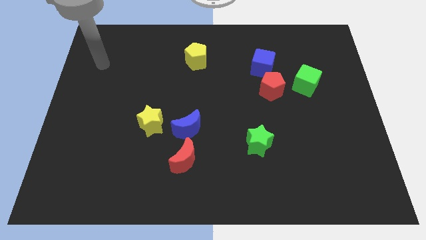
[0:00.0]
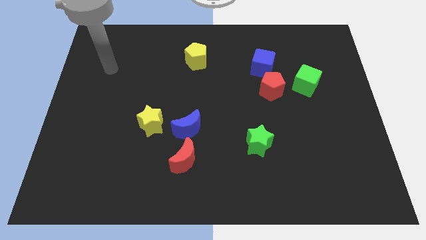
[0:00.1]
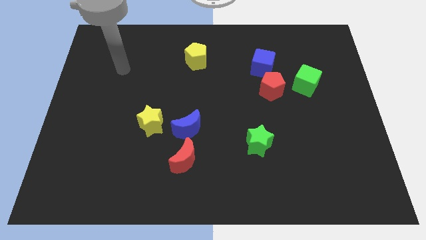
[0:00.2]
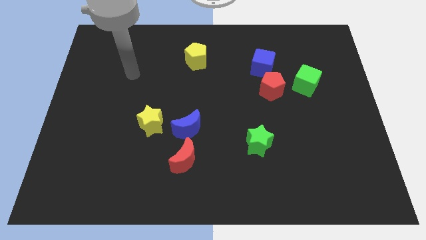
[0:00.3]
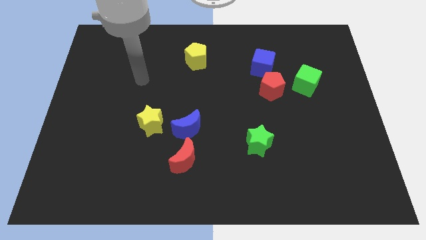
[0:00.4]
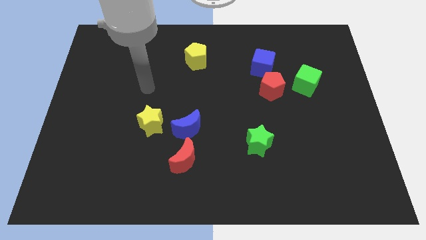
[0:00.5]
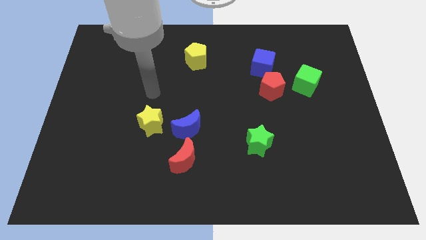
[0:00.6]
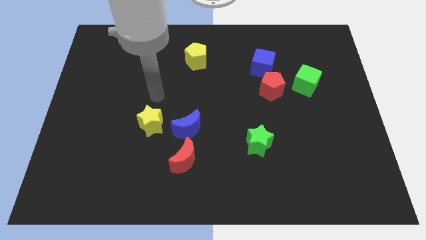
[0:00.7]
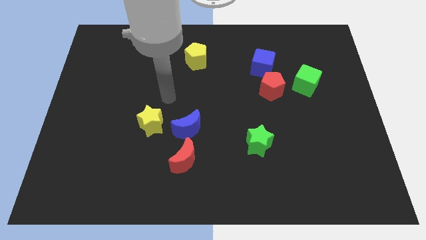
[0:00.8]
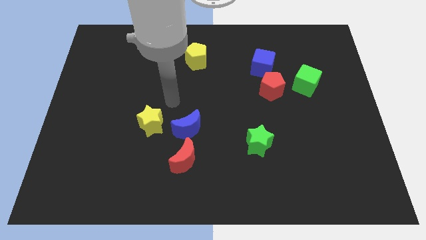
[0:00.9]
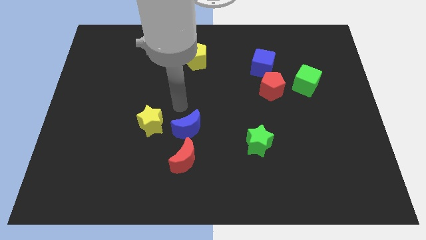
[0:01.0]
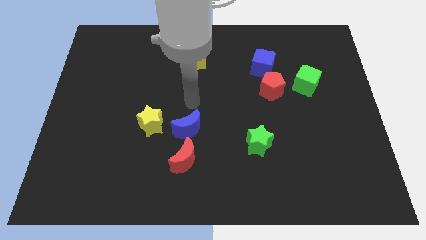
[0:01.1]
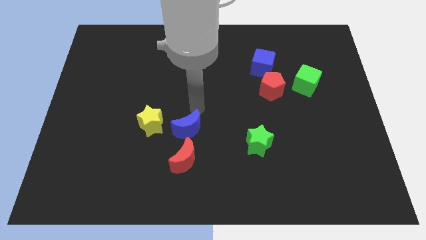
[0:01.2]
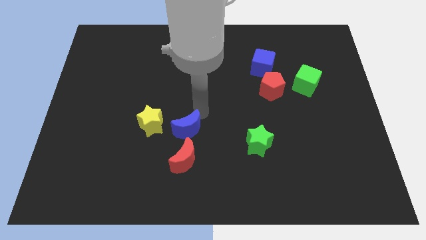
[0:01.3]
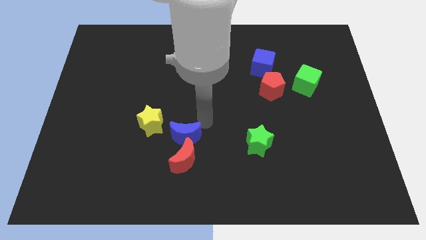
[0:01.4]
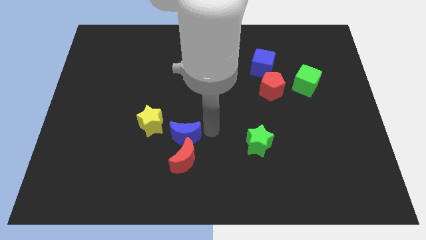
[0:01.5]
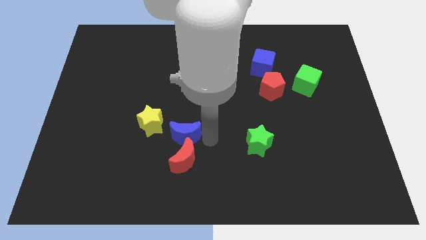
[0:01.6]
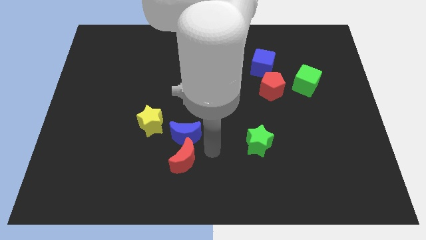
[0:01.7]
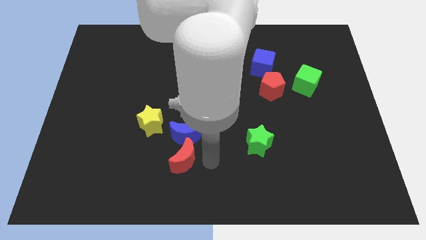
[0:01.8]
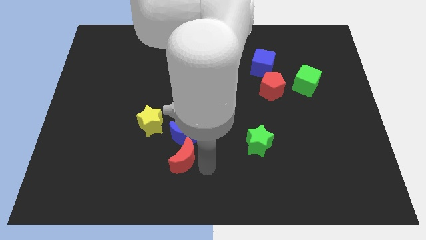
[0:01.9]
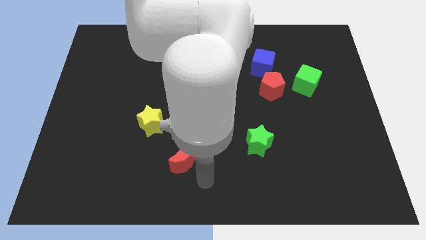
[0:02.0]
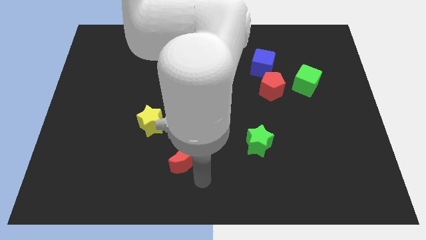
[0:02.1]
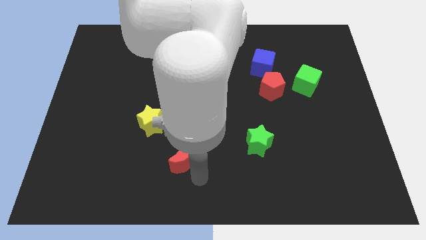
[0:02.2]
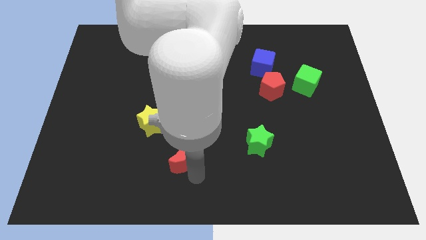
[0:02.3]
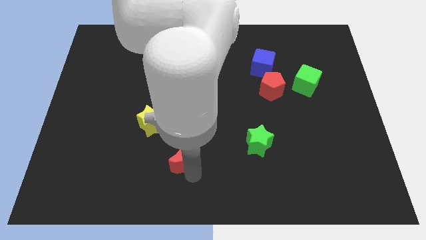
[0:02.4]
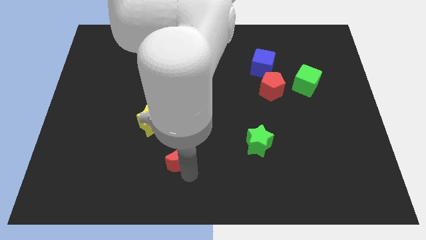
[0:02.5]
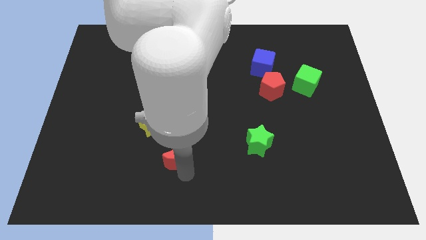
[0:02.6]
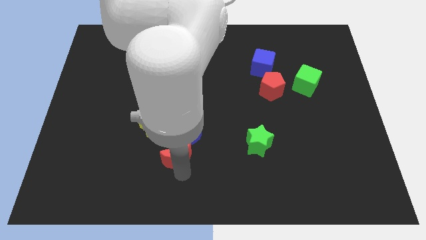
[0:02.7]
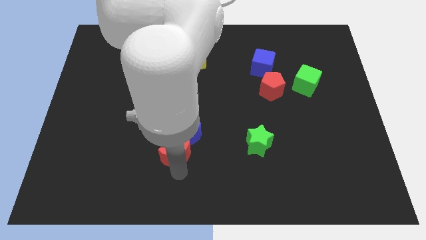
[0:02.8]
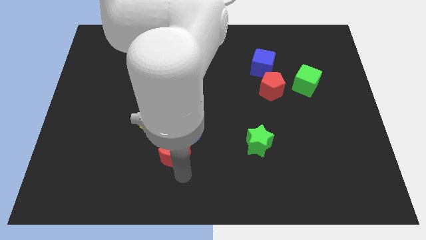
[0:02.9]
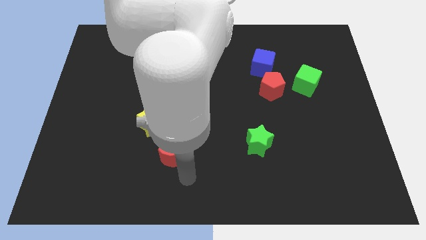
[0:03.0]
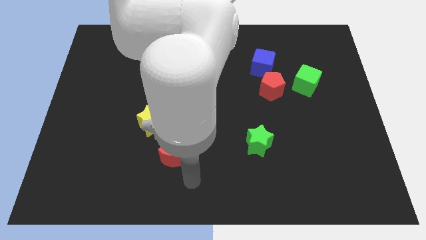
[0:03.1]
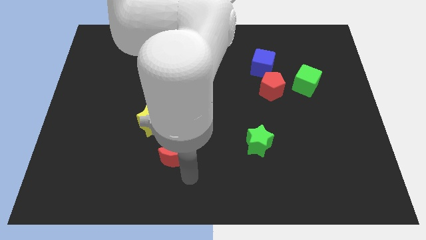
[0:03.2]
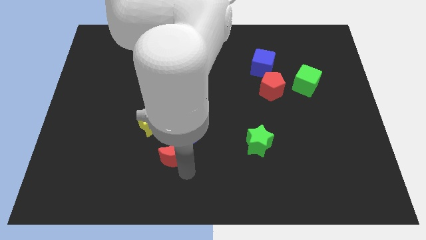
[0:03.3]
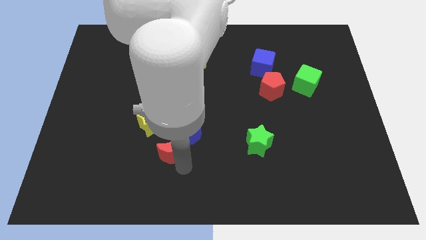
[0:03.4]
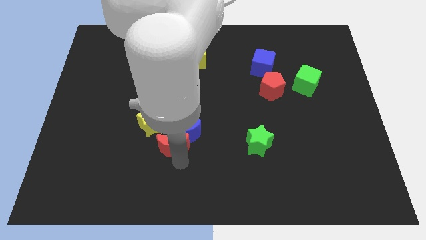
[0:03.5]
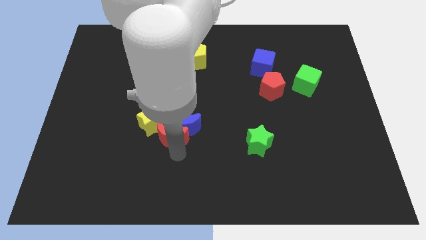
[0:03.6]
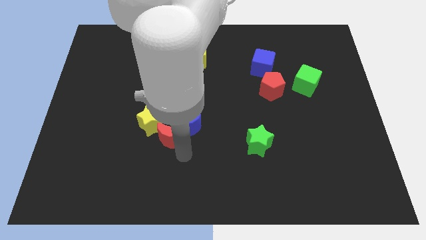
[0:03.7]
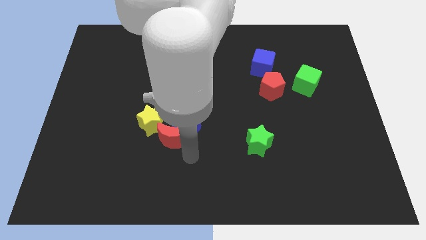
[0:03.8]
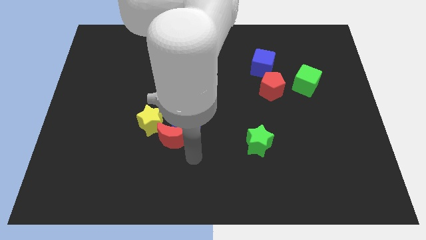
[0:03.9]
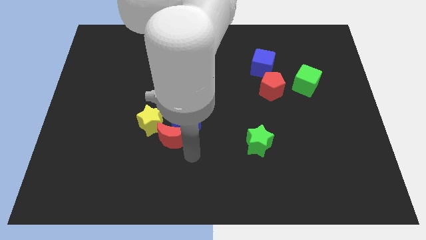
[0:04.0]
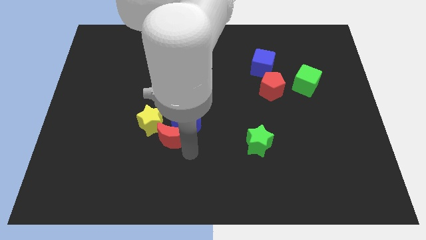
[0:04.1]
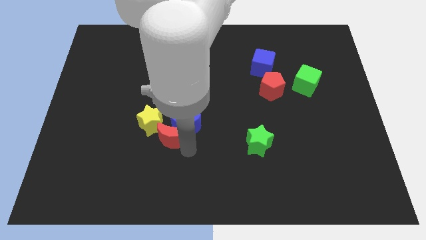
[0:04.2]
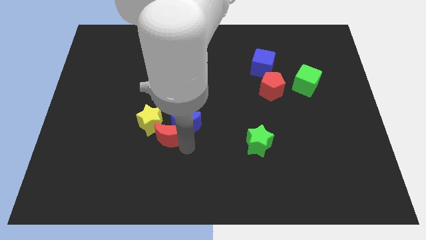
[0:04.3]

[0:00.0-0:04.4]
put the red moon to the yellow star

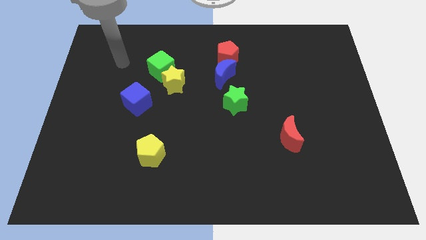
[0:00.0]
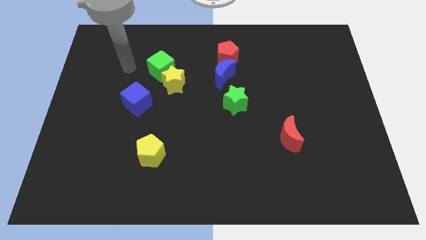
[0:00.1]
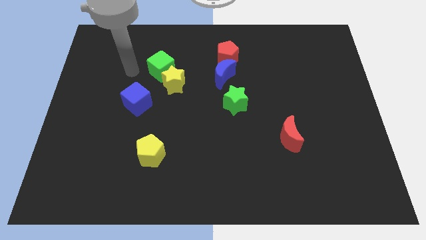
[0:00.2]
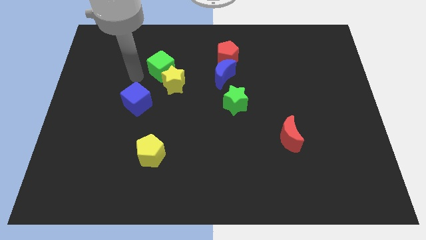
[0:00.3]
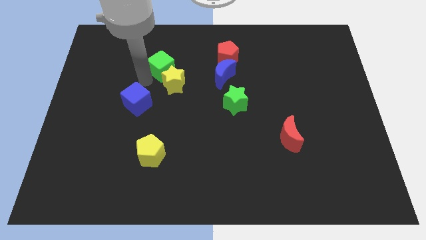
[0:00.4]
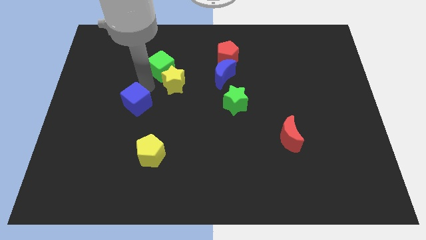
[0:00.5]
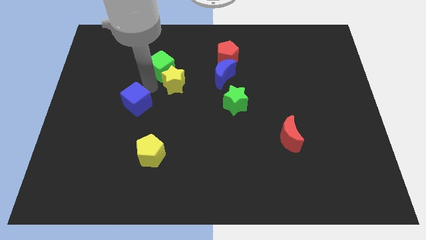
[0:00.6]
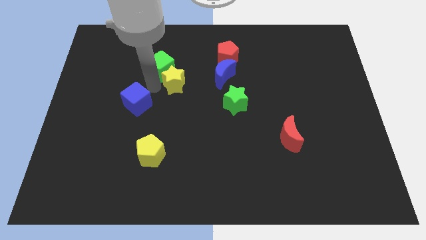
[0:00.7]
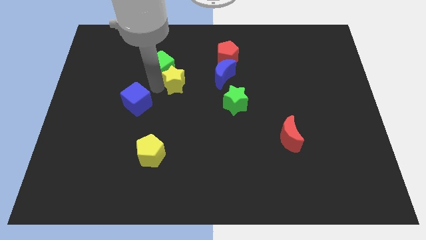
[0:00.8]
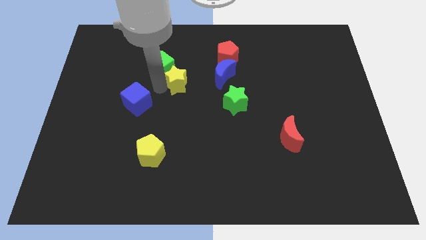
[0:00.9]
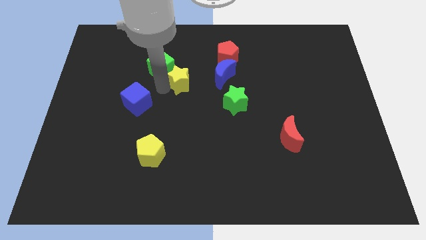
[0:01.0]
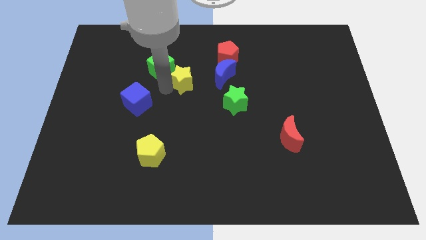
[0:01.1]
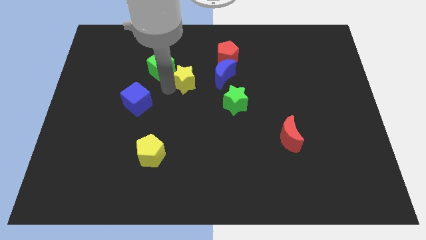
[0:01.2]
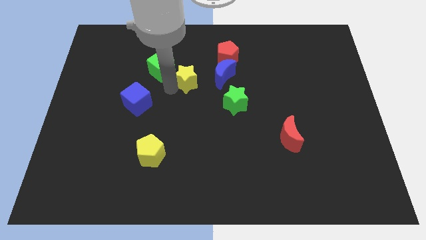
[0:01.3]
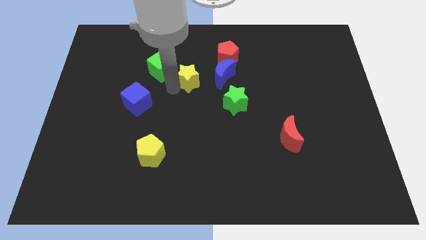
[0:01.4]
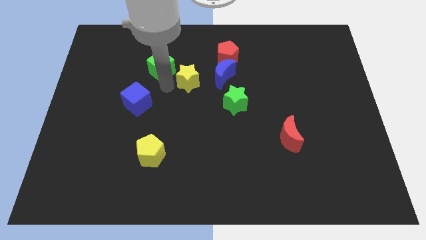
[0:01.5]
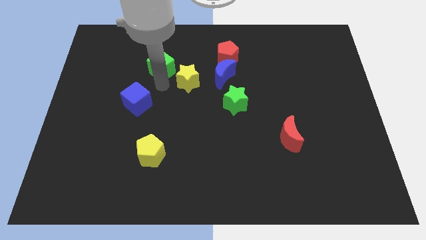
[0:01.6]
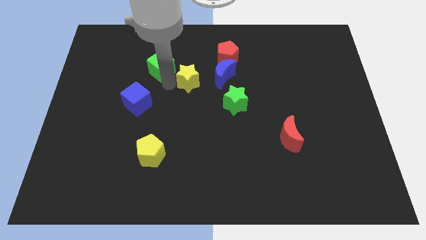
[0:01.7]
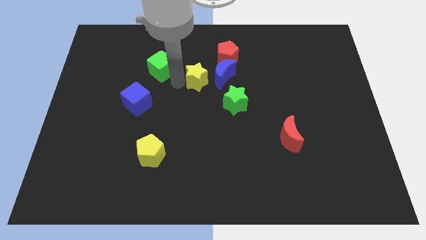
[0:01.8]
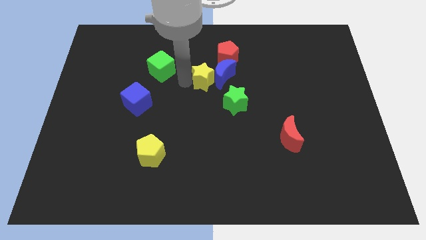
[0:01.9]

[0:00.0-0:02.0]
push the yellow star next to the blue moon

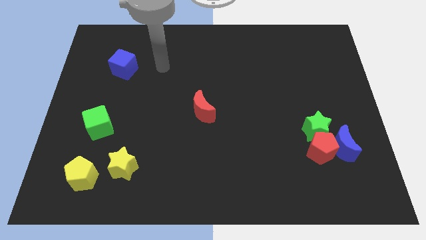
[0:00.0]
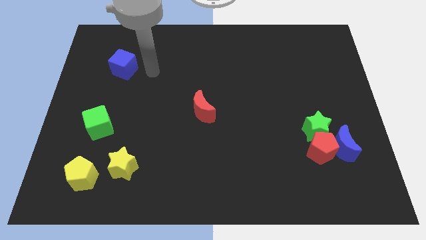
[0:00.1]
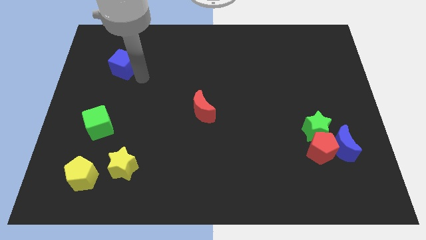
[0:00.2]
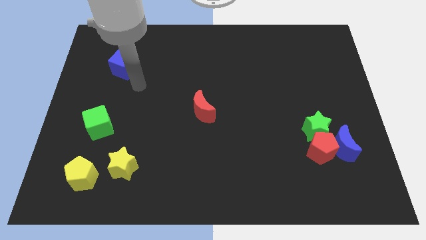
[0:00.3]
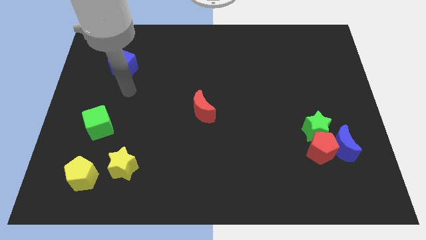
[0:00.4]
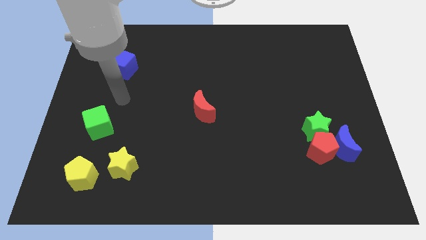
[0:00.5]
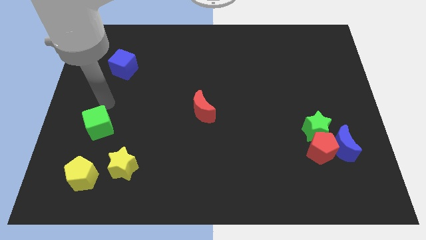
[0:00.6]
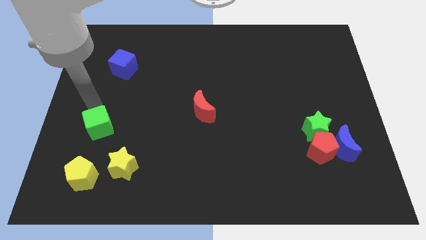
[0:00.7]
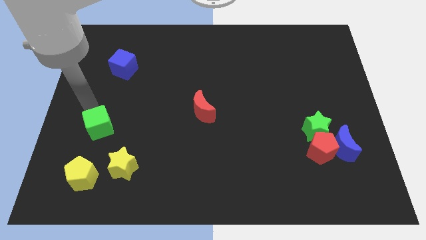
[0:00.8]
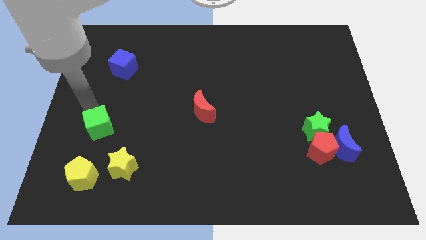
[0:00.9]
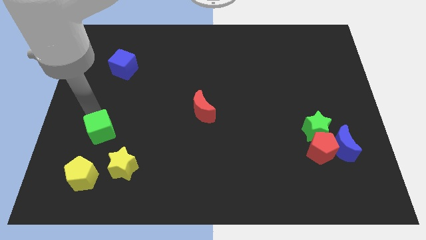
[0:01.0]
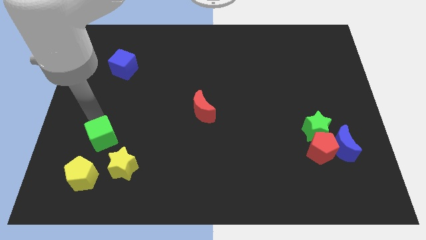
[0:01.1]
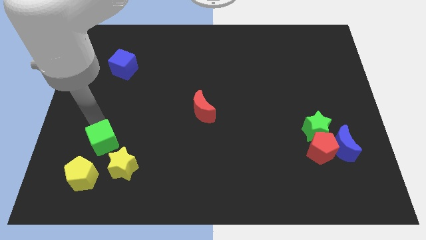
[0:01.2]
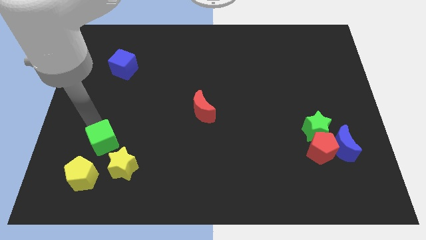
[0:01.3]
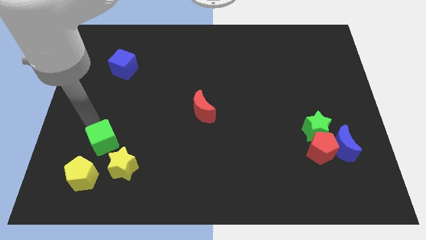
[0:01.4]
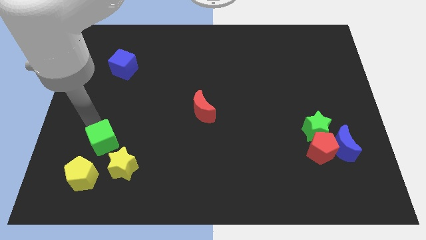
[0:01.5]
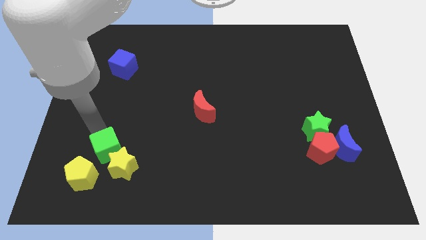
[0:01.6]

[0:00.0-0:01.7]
move the green cube to the yellow star
